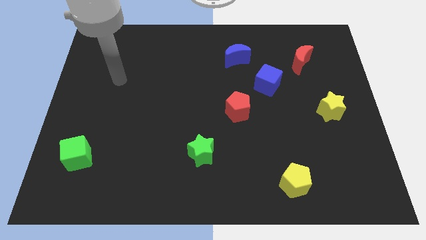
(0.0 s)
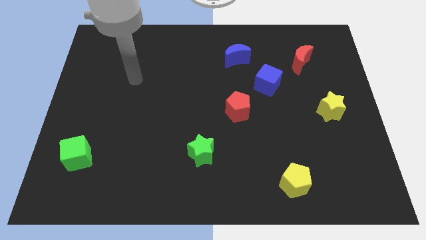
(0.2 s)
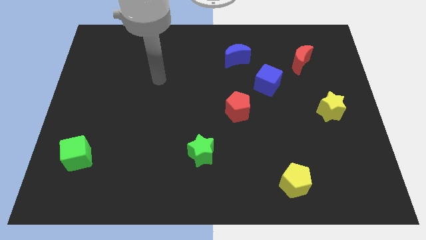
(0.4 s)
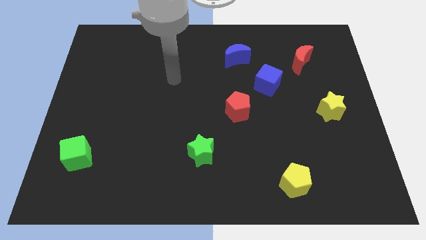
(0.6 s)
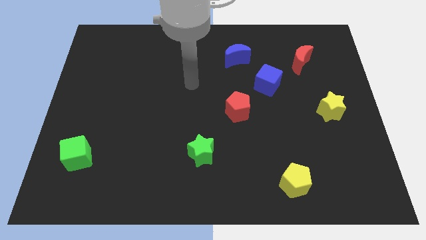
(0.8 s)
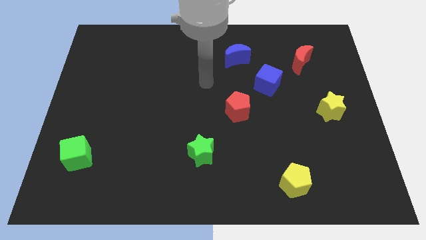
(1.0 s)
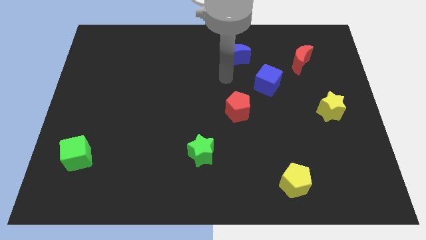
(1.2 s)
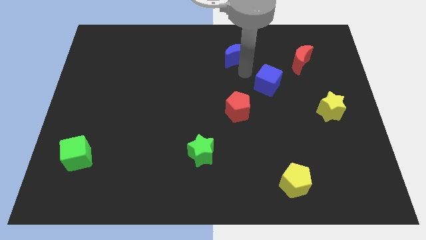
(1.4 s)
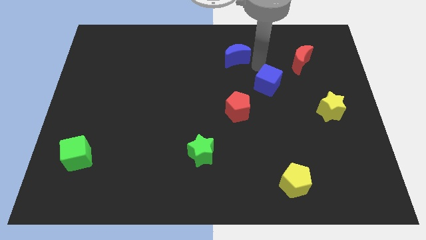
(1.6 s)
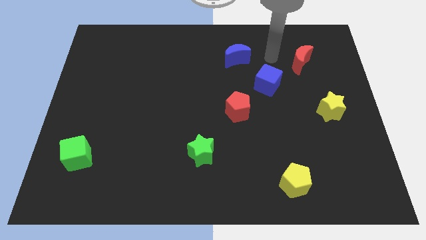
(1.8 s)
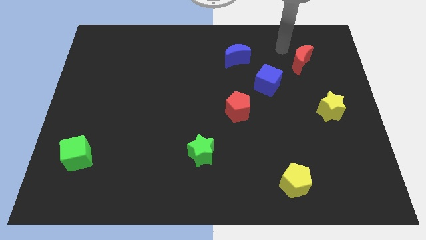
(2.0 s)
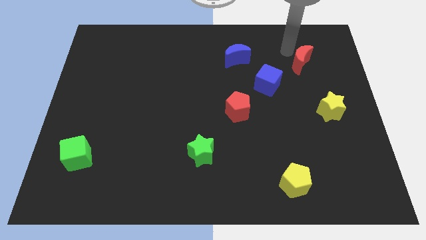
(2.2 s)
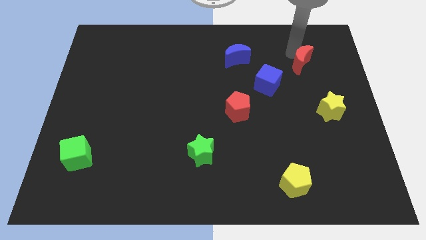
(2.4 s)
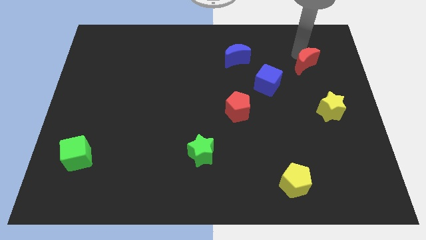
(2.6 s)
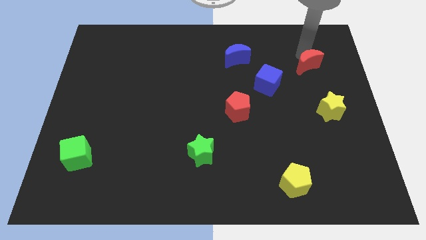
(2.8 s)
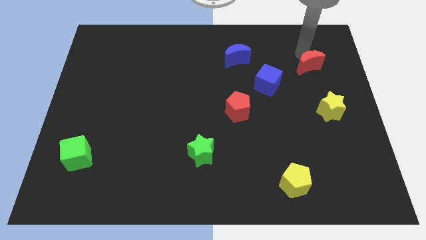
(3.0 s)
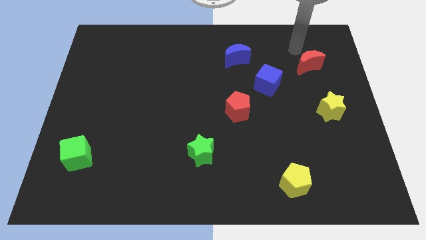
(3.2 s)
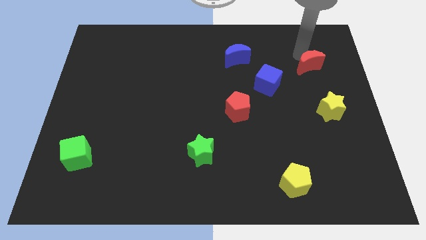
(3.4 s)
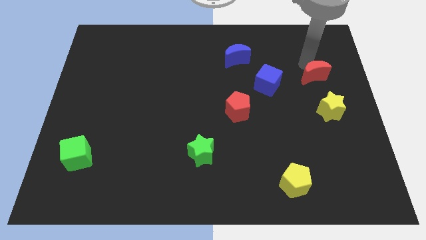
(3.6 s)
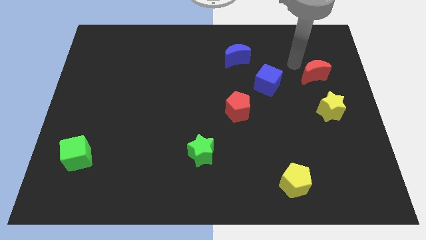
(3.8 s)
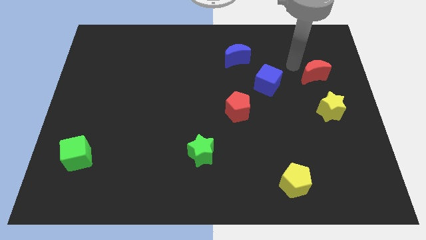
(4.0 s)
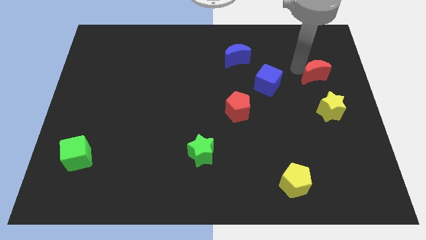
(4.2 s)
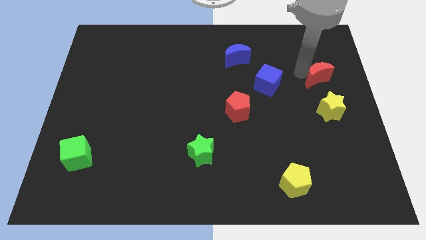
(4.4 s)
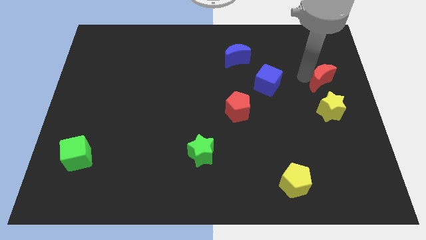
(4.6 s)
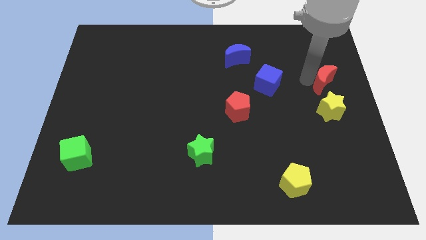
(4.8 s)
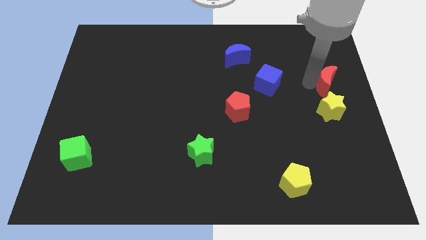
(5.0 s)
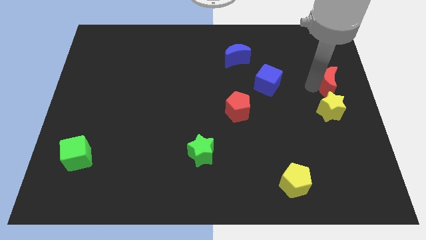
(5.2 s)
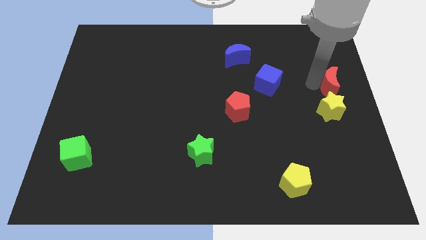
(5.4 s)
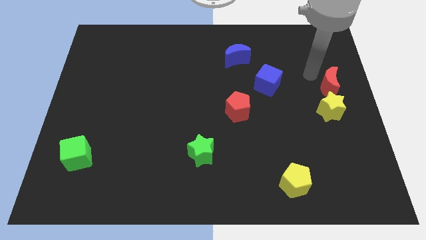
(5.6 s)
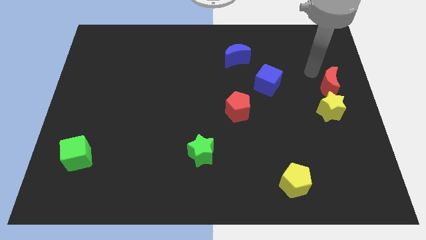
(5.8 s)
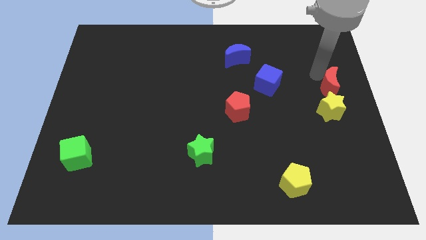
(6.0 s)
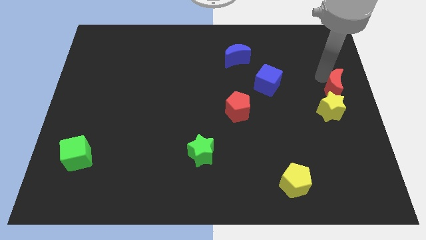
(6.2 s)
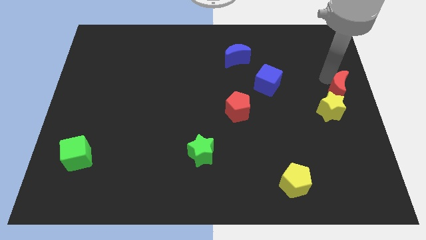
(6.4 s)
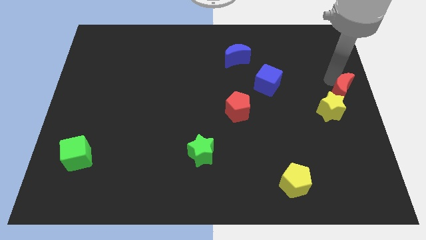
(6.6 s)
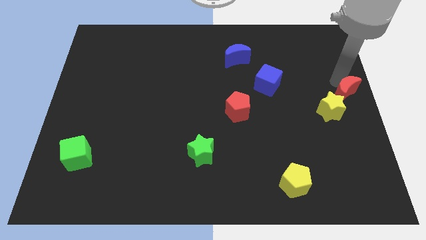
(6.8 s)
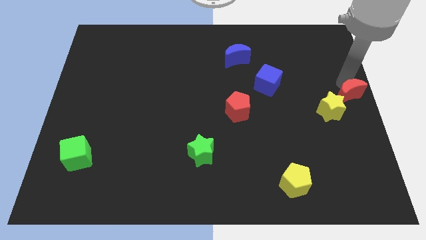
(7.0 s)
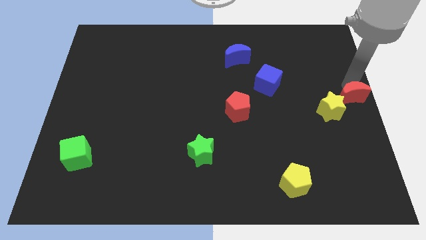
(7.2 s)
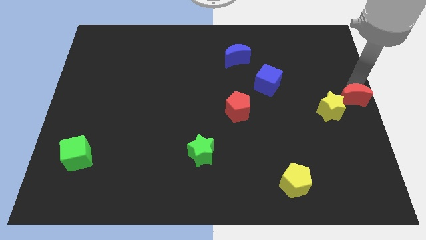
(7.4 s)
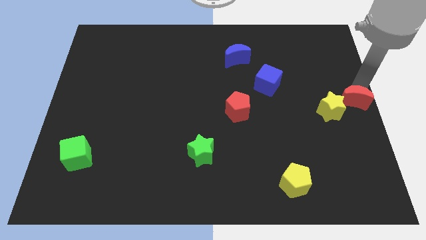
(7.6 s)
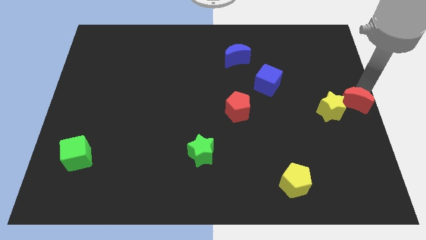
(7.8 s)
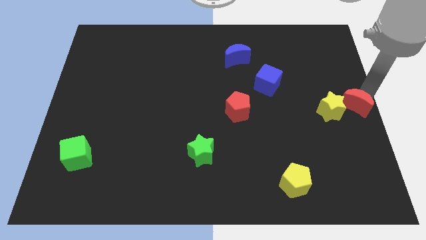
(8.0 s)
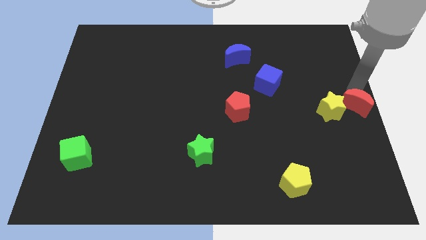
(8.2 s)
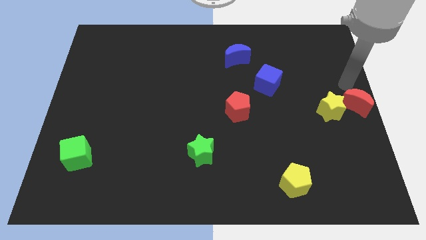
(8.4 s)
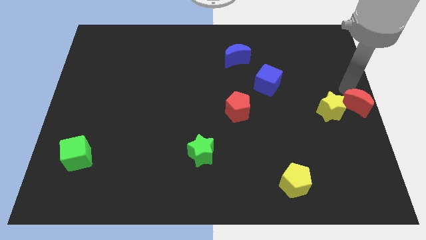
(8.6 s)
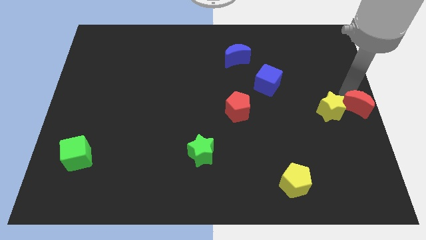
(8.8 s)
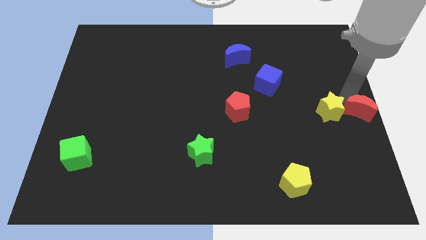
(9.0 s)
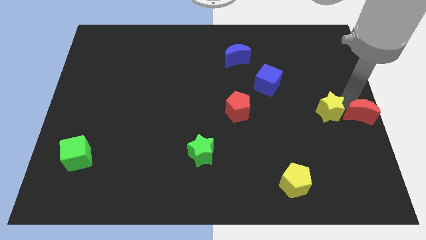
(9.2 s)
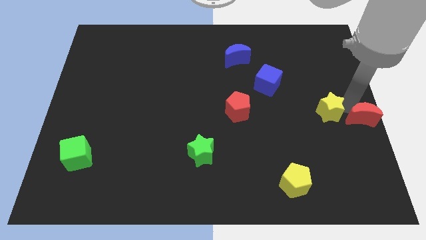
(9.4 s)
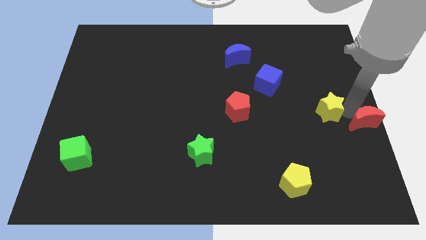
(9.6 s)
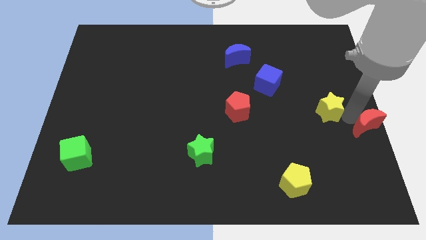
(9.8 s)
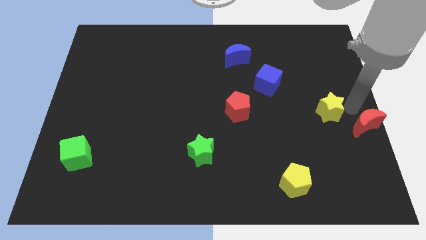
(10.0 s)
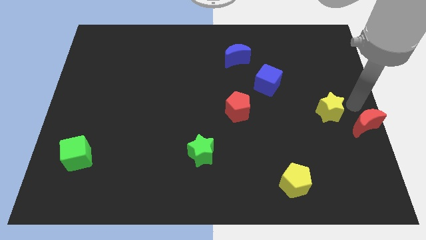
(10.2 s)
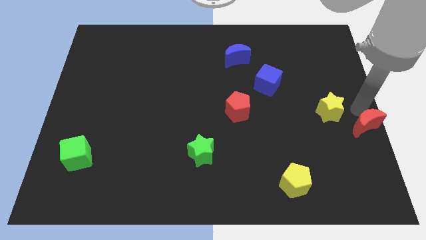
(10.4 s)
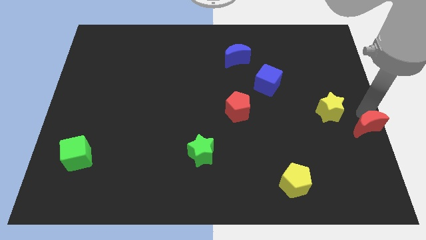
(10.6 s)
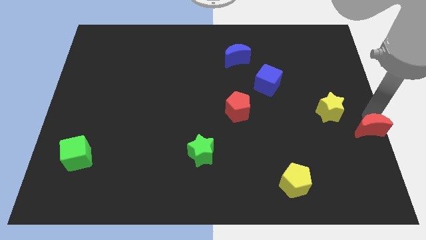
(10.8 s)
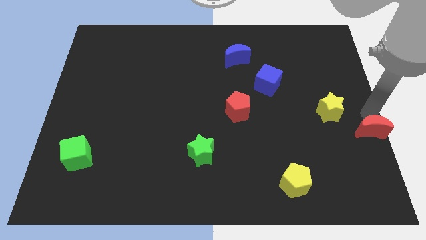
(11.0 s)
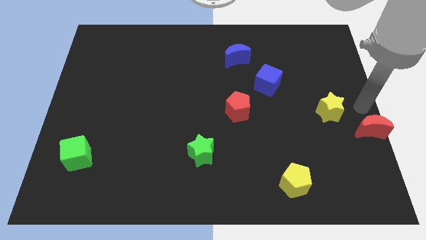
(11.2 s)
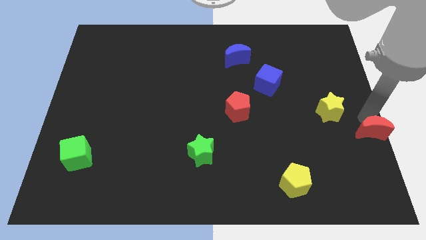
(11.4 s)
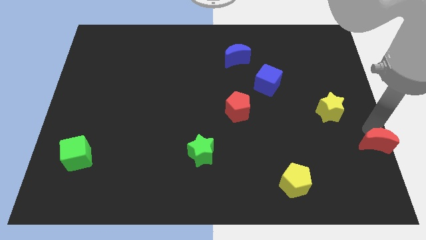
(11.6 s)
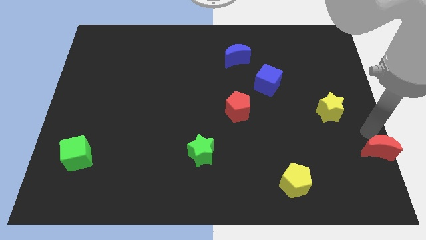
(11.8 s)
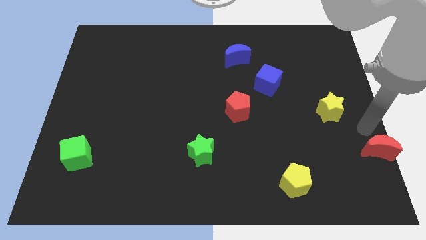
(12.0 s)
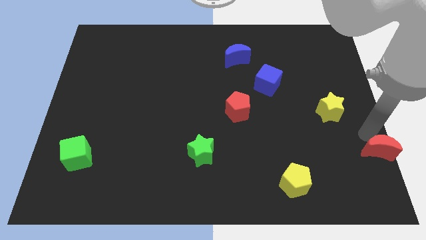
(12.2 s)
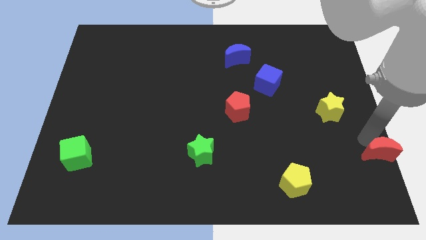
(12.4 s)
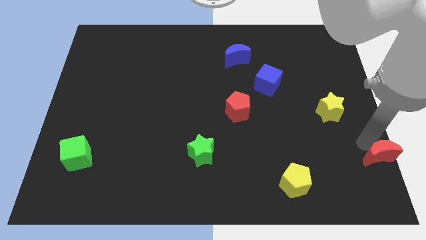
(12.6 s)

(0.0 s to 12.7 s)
push the red moon to the bottom right of the board

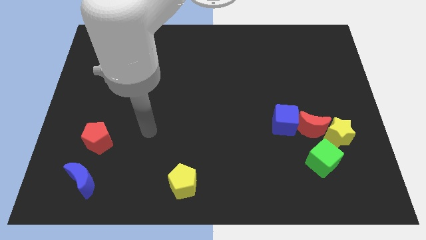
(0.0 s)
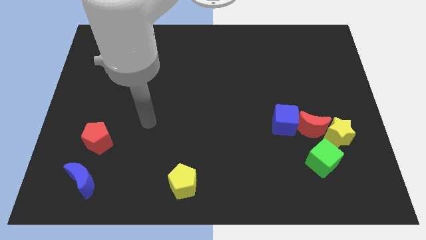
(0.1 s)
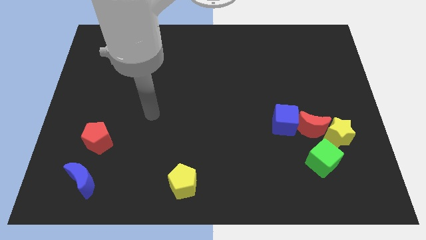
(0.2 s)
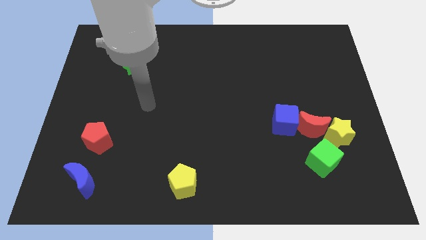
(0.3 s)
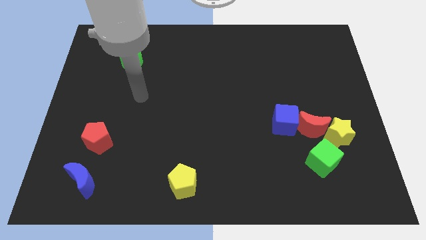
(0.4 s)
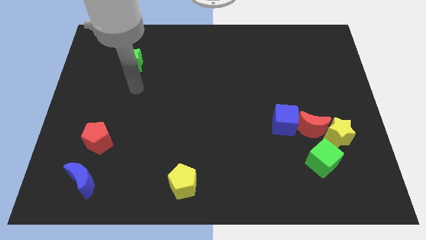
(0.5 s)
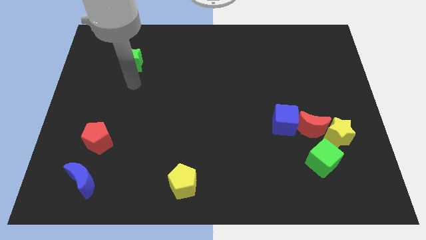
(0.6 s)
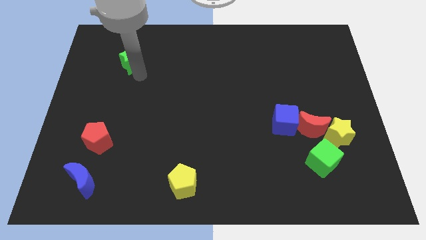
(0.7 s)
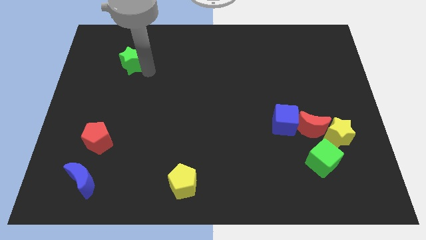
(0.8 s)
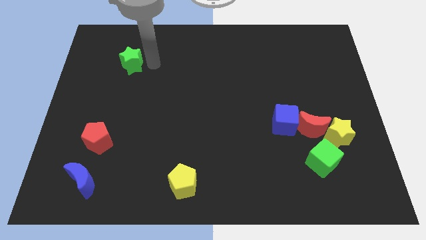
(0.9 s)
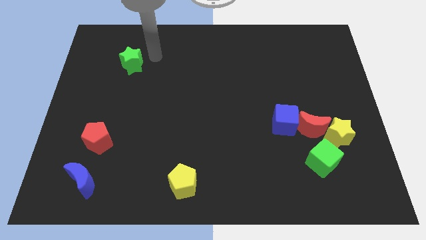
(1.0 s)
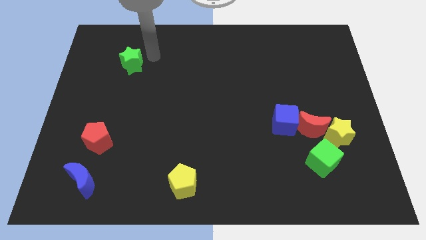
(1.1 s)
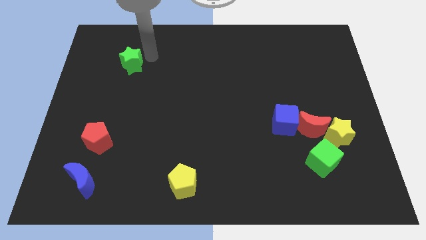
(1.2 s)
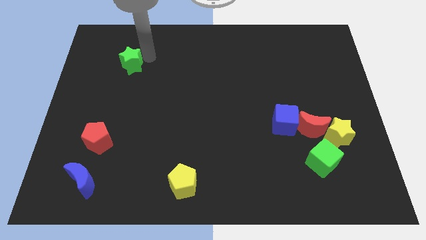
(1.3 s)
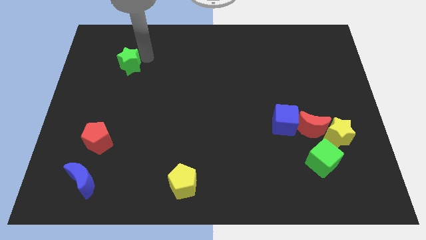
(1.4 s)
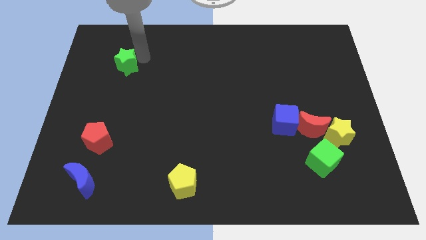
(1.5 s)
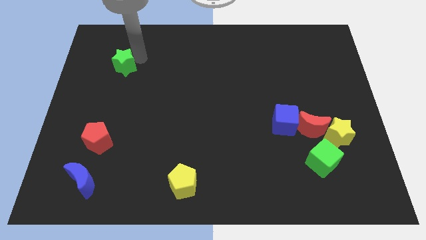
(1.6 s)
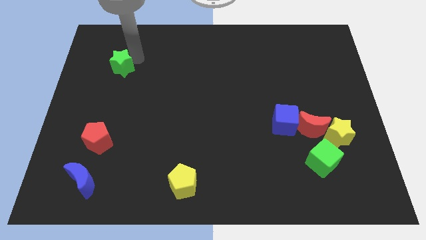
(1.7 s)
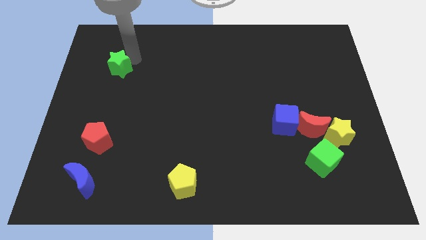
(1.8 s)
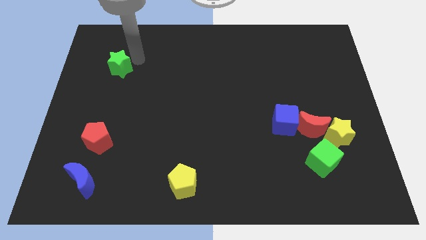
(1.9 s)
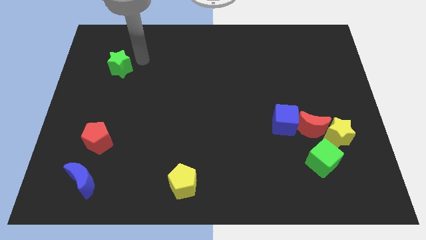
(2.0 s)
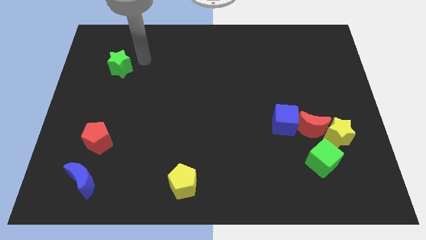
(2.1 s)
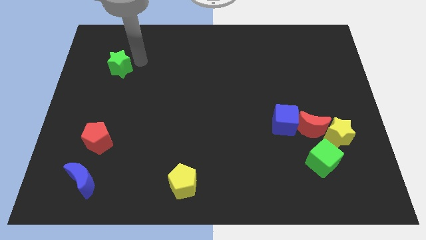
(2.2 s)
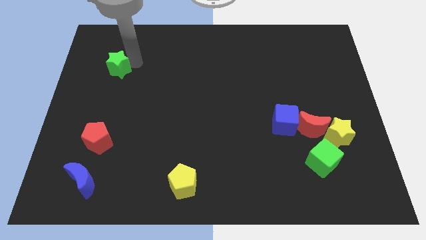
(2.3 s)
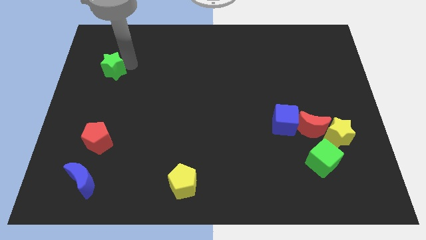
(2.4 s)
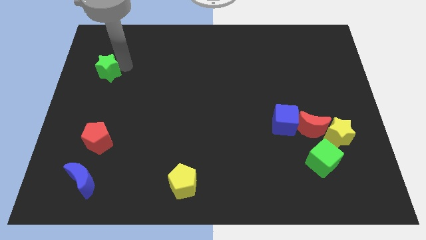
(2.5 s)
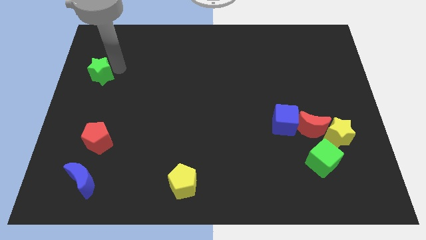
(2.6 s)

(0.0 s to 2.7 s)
move the green star to the left side of the board
